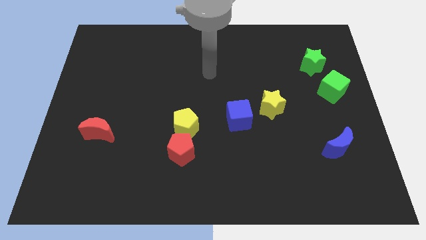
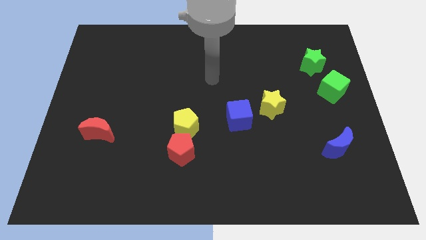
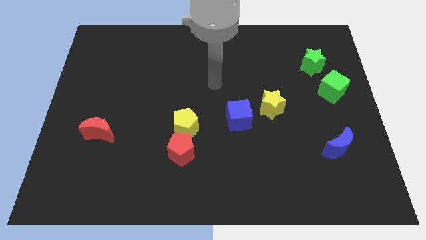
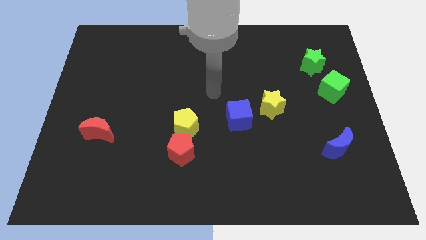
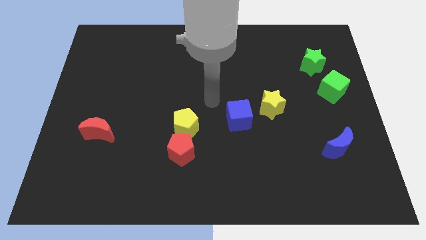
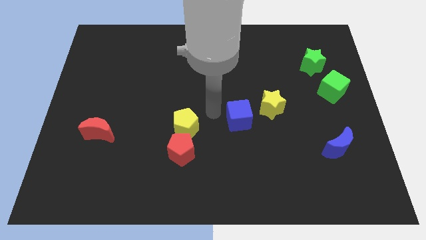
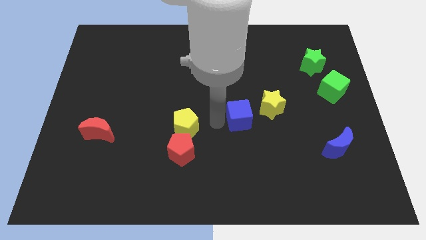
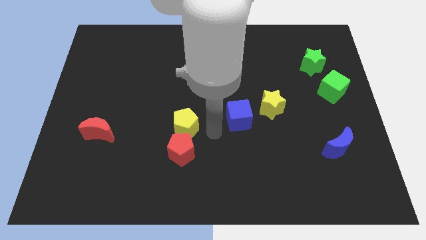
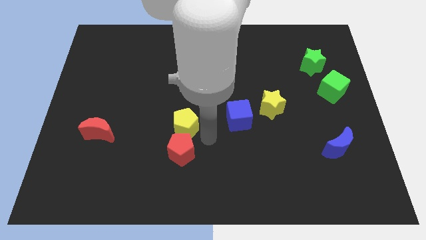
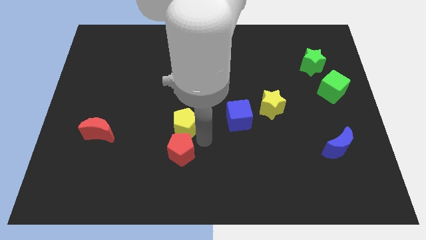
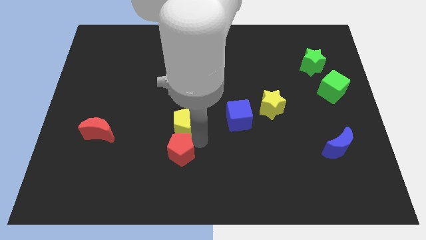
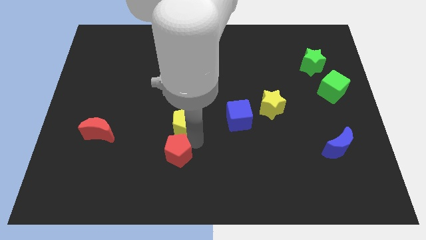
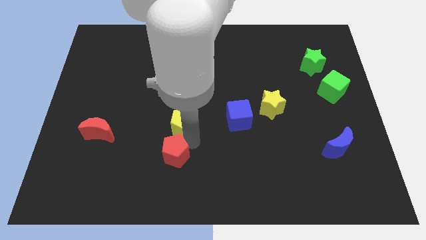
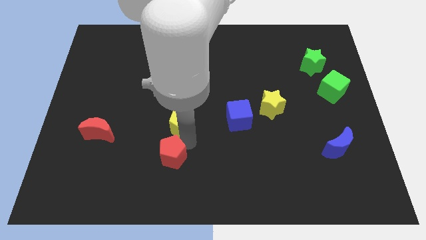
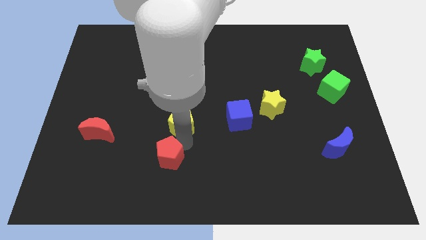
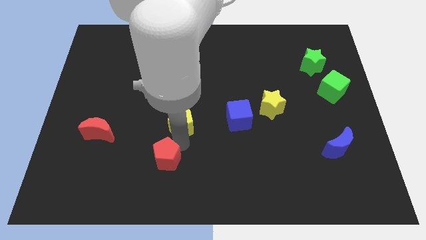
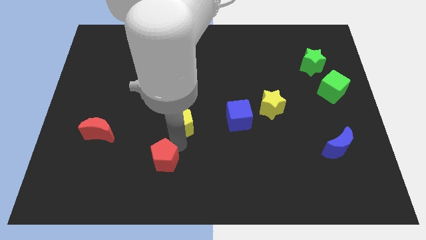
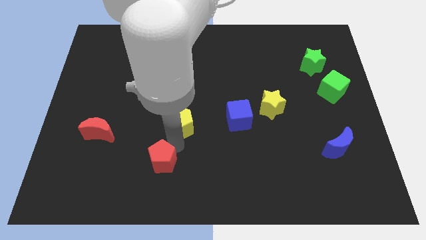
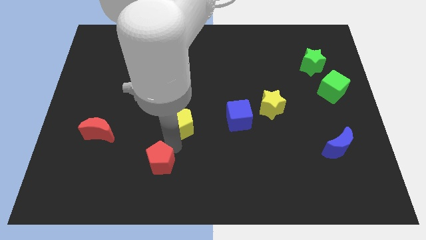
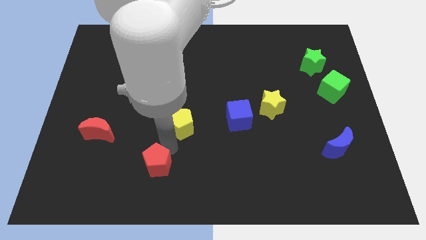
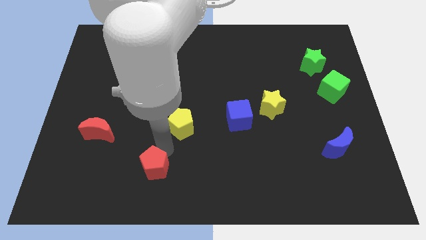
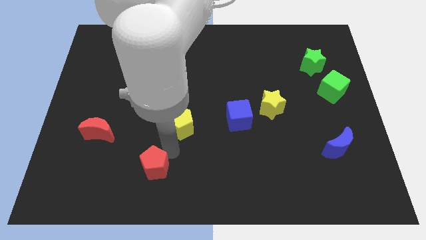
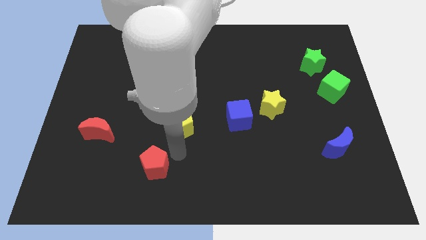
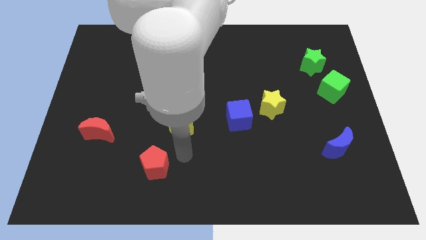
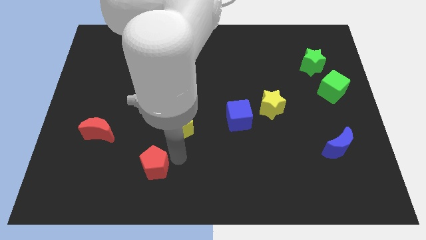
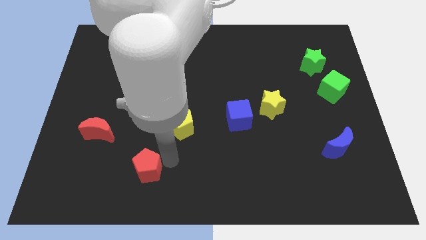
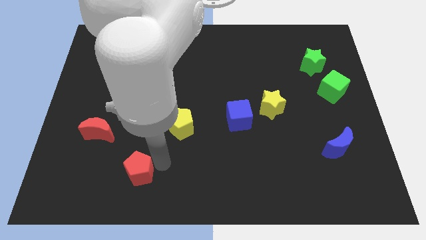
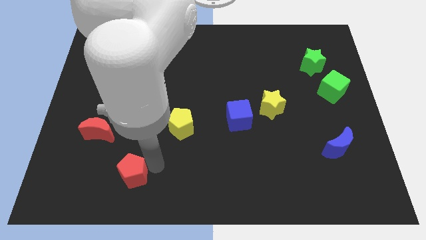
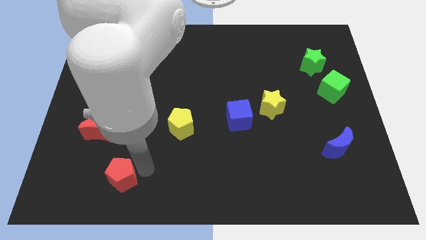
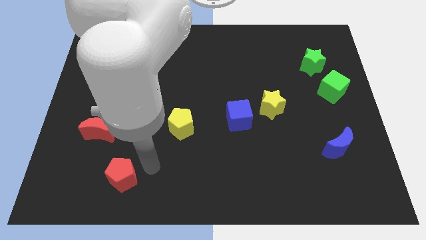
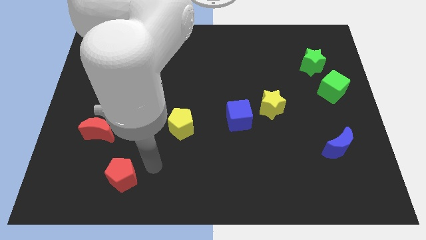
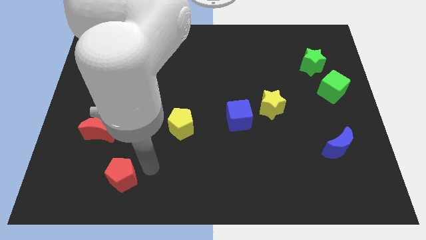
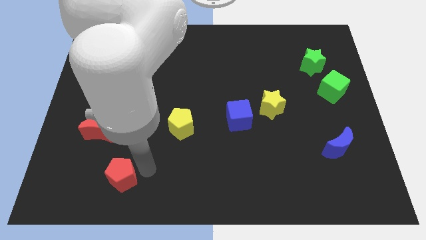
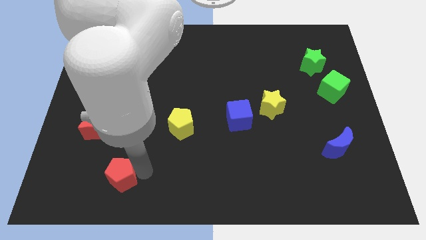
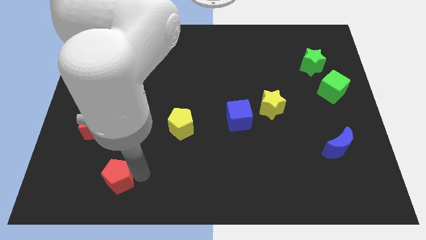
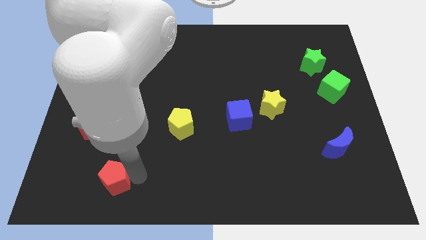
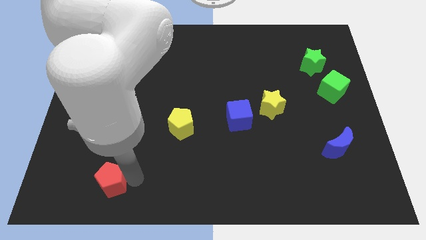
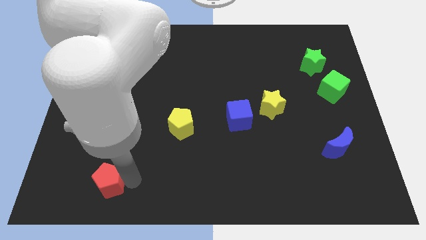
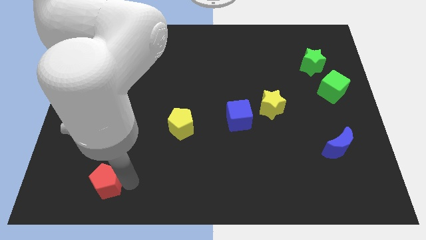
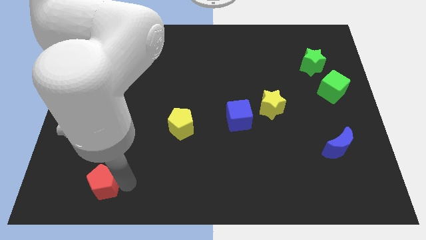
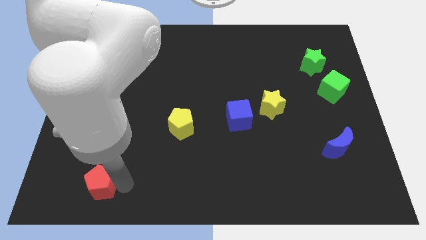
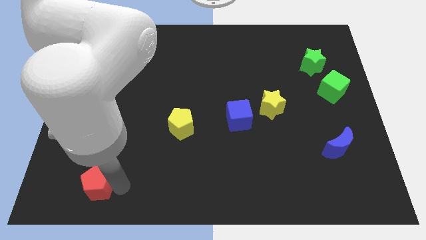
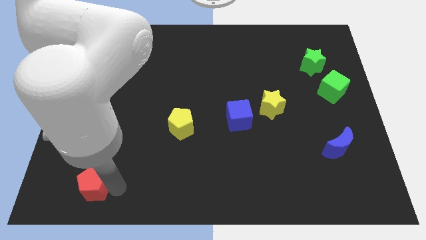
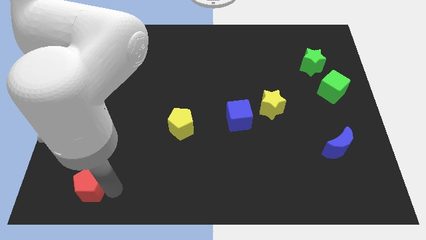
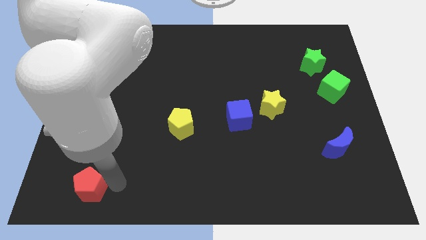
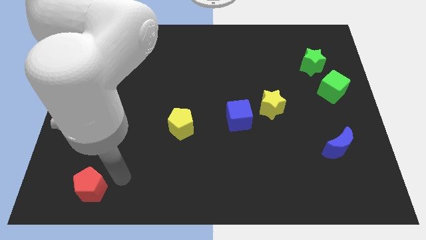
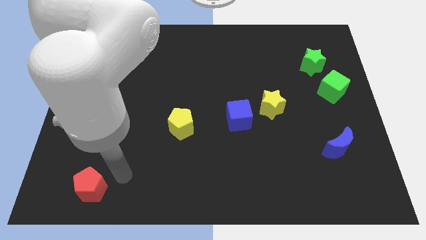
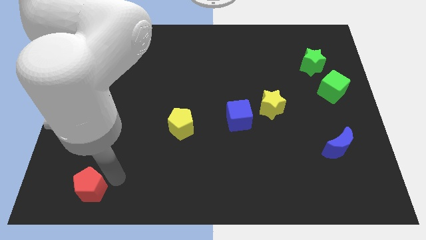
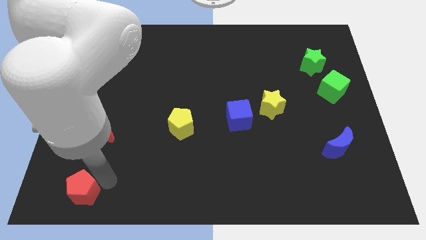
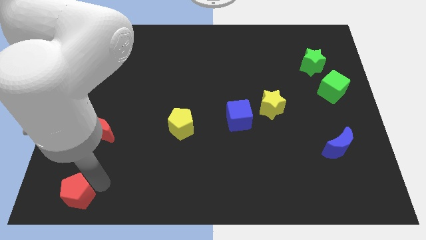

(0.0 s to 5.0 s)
move the red pentagon to the bottom left corner

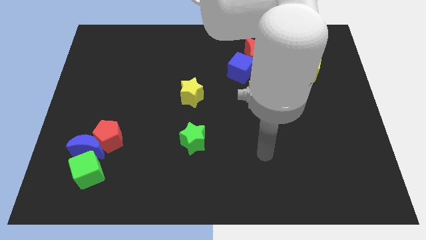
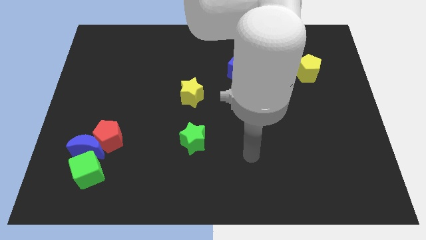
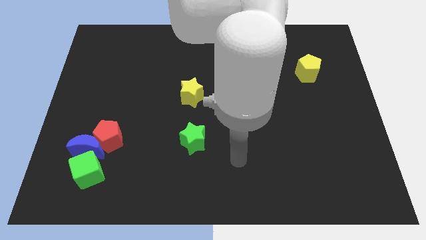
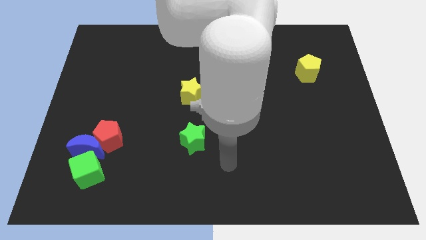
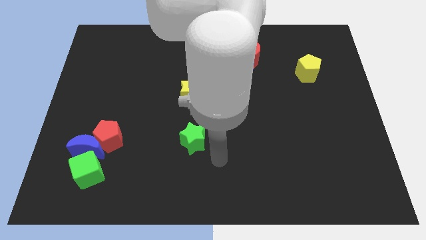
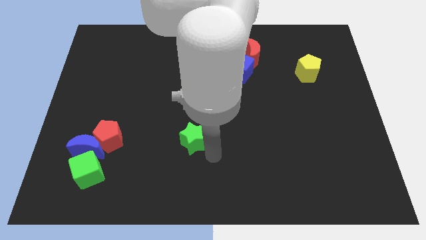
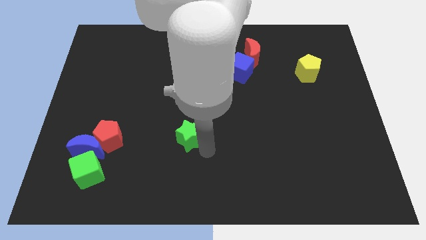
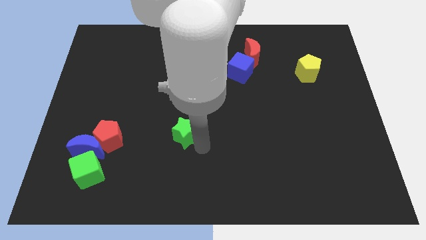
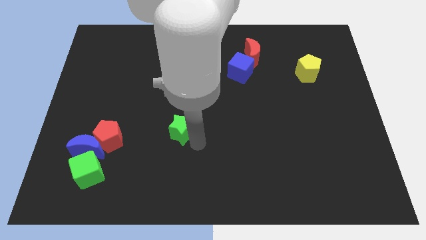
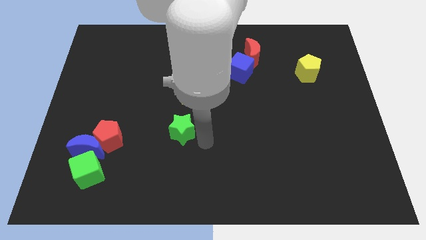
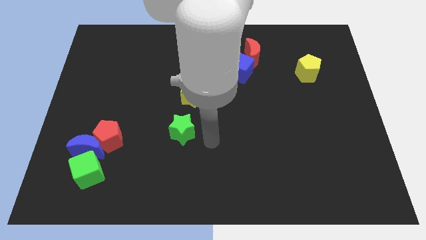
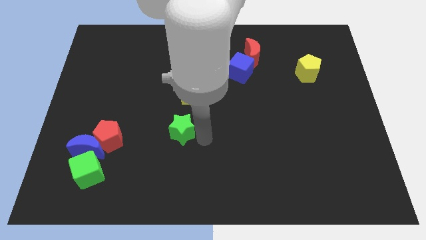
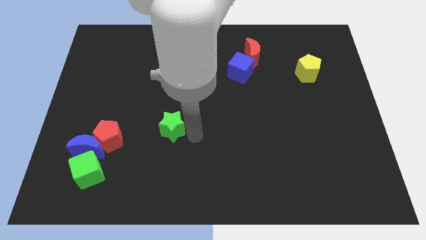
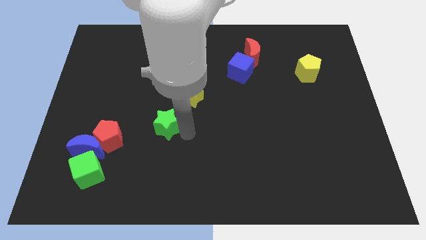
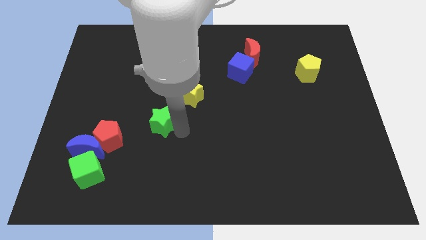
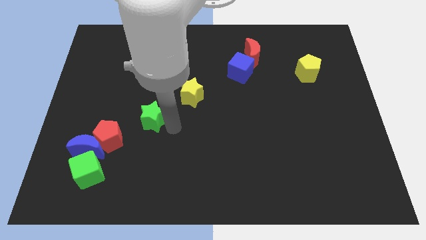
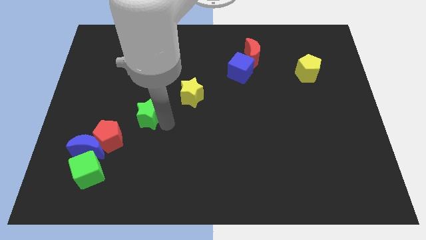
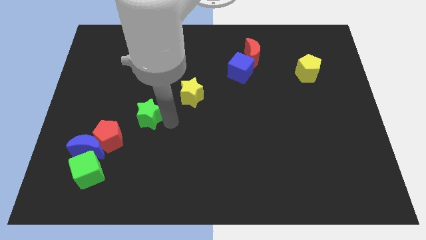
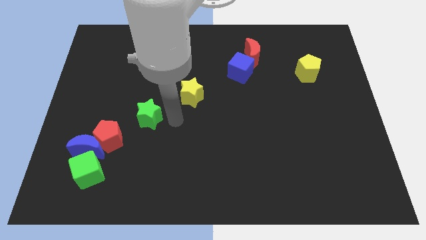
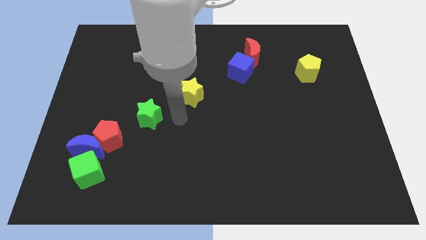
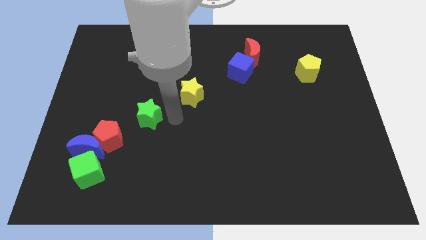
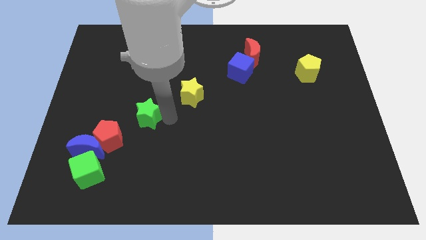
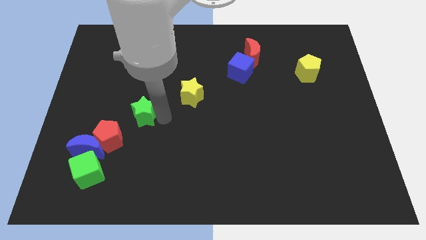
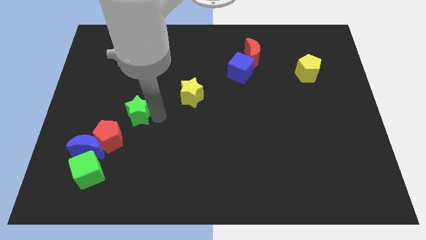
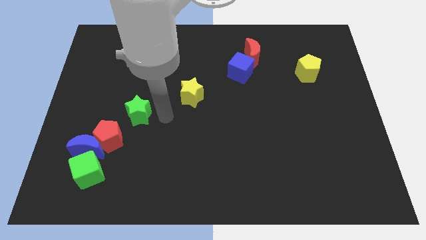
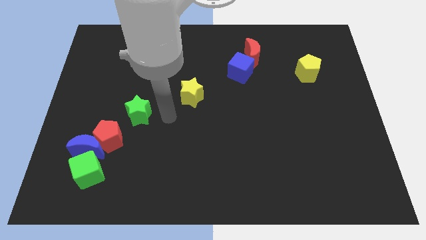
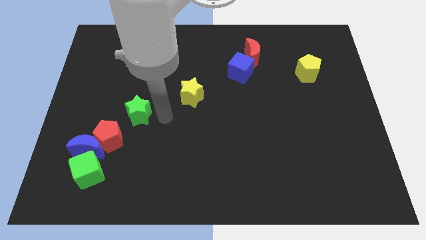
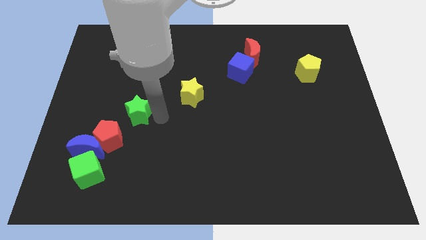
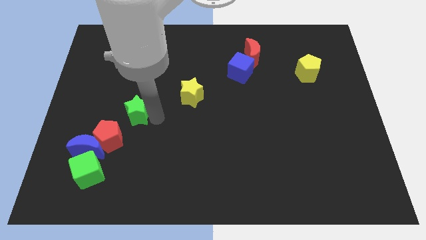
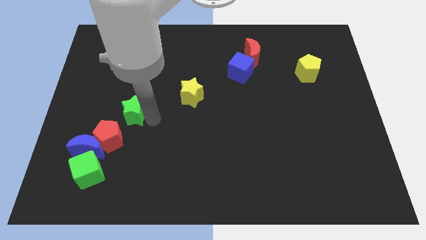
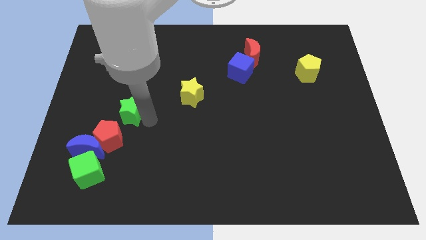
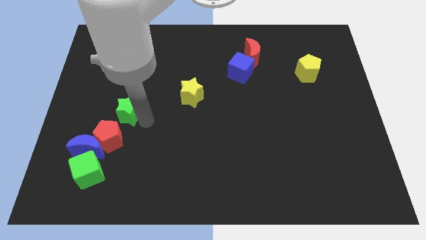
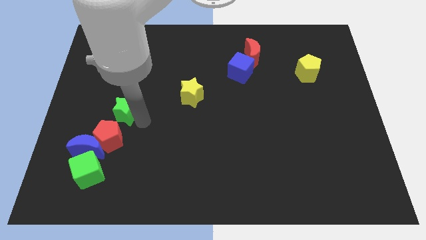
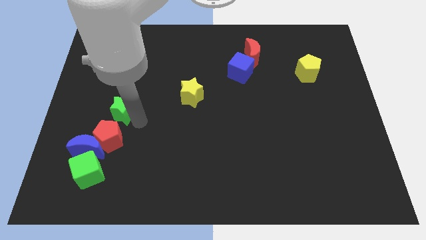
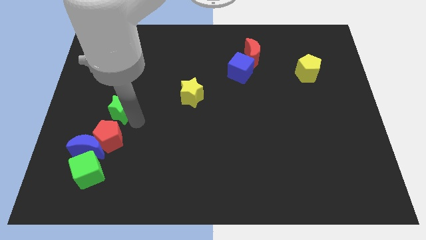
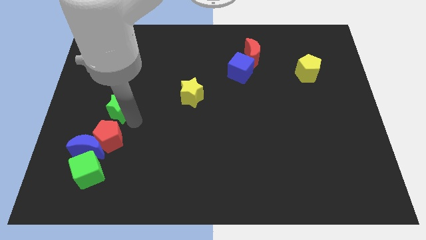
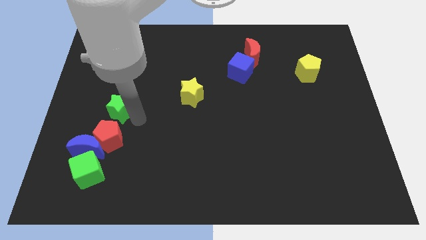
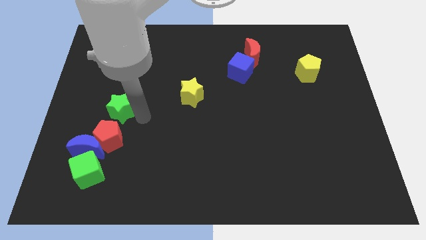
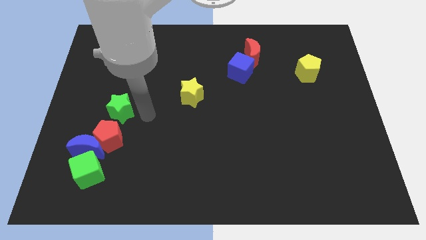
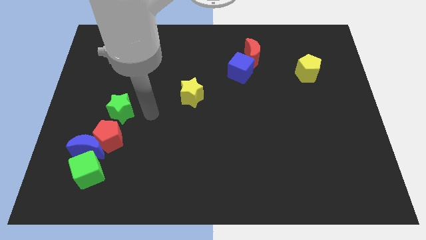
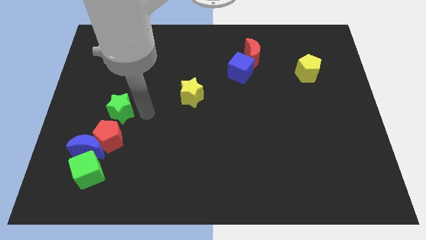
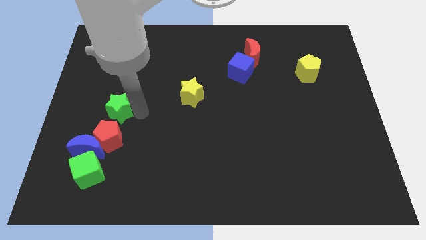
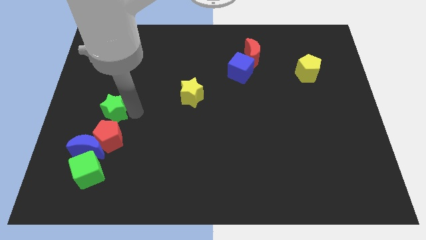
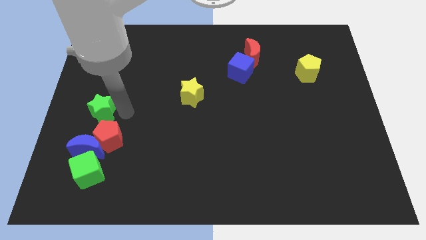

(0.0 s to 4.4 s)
push the green star to the left side of the board
